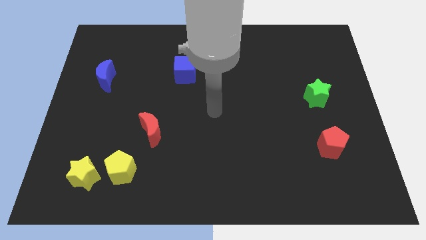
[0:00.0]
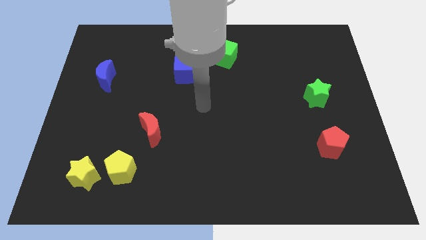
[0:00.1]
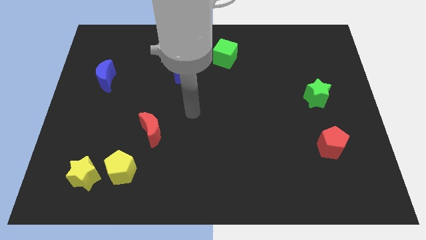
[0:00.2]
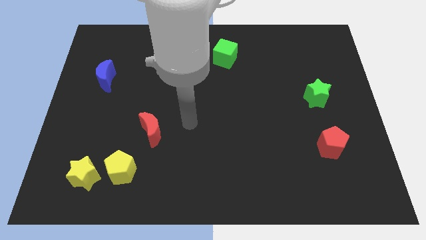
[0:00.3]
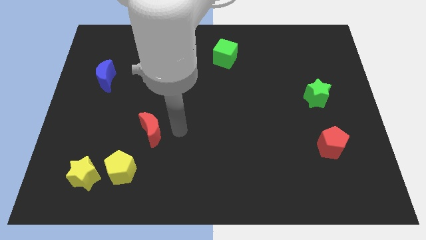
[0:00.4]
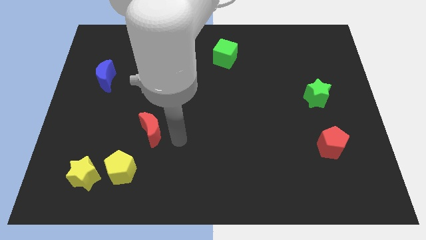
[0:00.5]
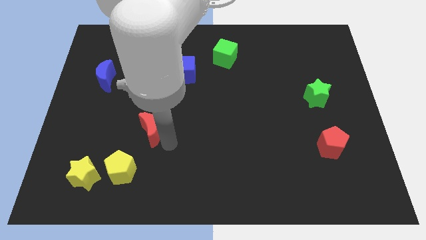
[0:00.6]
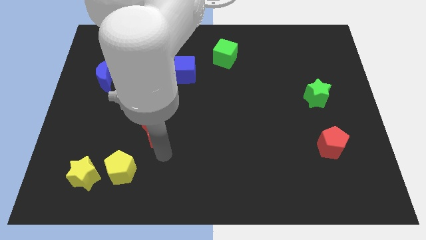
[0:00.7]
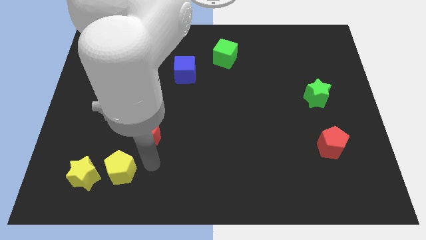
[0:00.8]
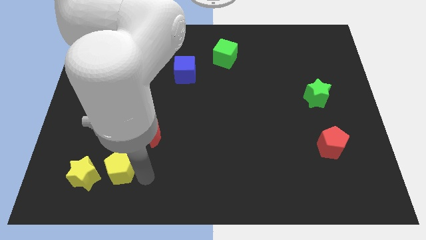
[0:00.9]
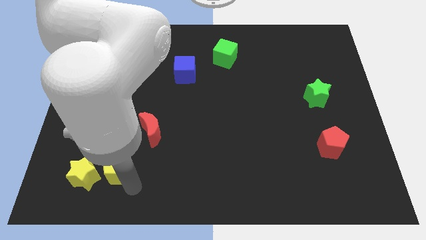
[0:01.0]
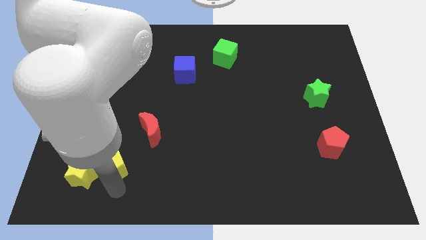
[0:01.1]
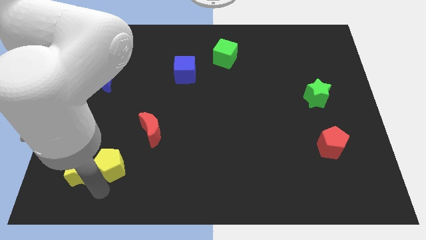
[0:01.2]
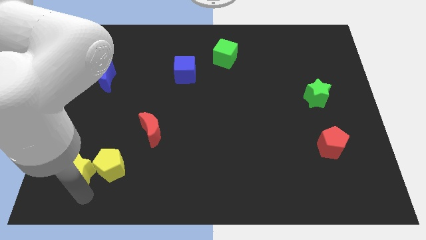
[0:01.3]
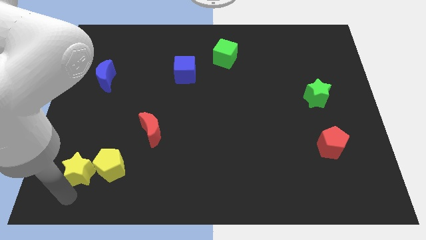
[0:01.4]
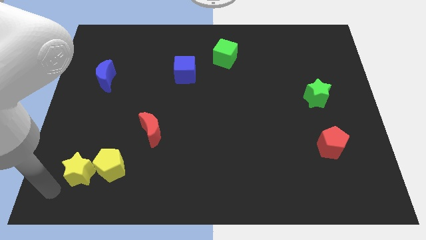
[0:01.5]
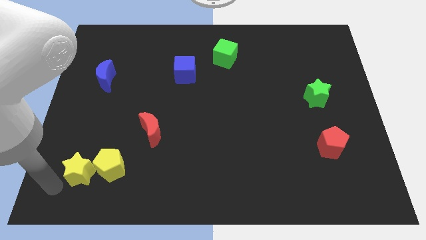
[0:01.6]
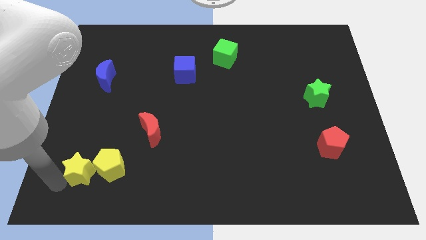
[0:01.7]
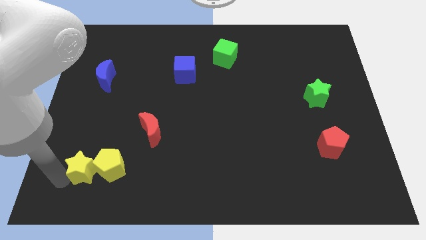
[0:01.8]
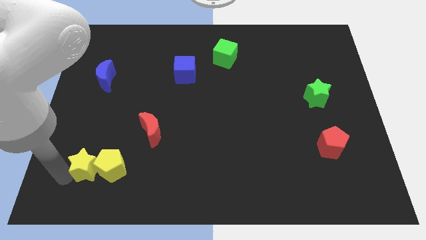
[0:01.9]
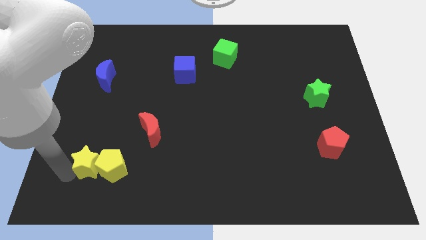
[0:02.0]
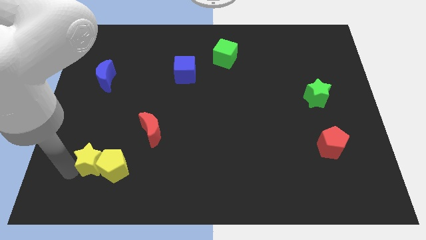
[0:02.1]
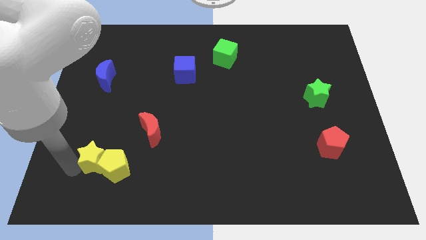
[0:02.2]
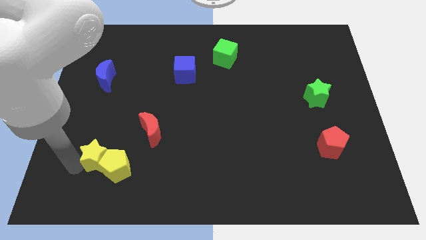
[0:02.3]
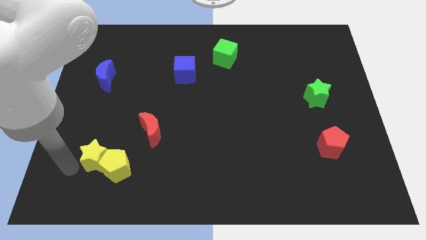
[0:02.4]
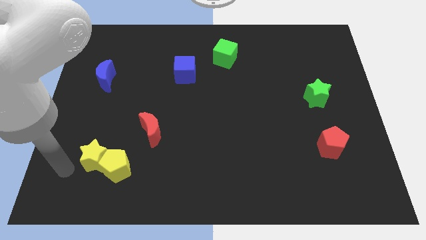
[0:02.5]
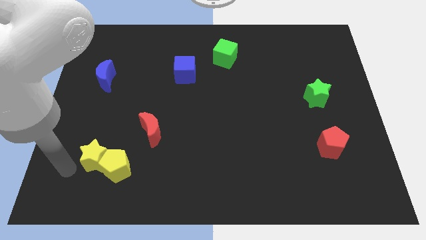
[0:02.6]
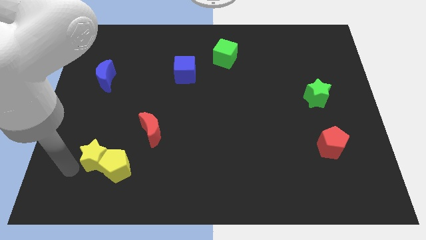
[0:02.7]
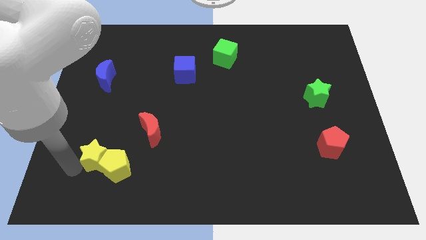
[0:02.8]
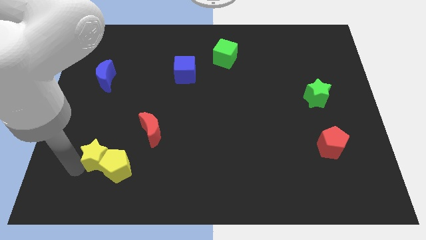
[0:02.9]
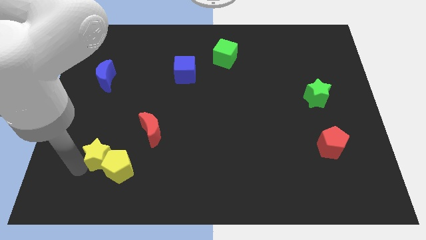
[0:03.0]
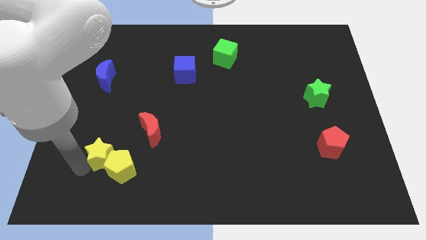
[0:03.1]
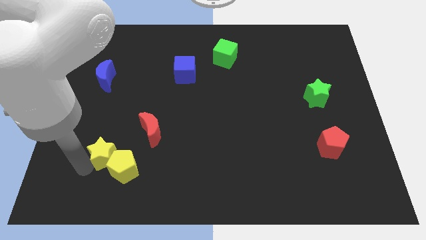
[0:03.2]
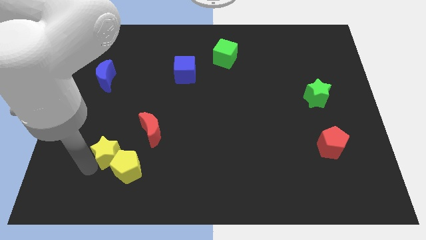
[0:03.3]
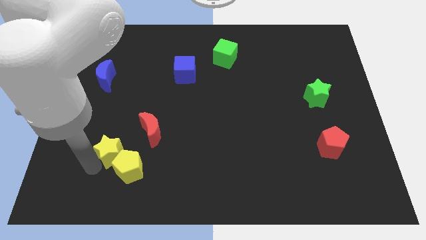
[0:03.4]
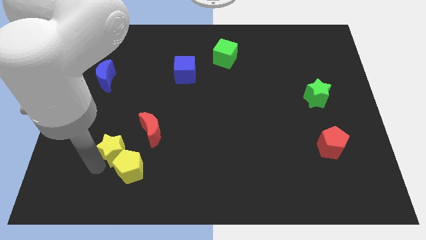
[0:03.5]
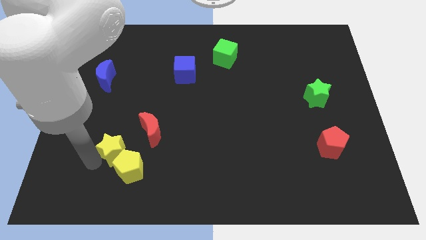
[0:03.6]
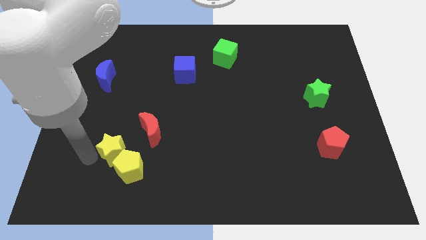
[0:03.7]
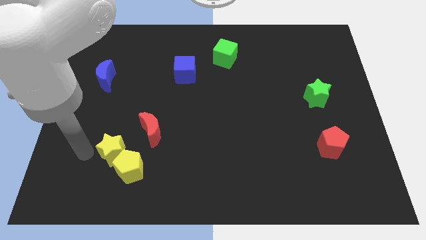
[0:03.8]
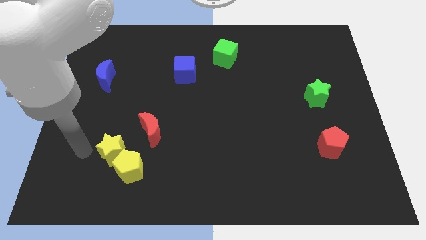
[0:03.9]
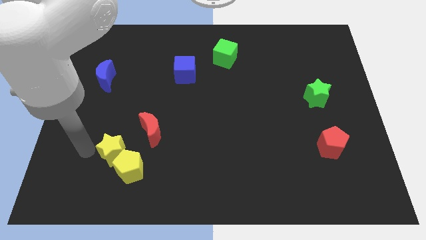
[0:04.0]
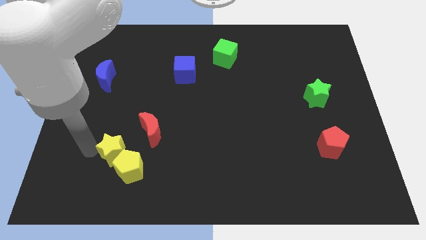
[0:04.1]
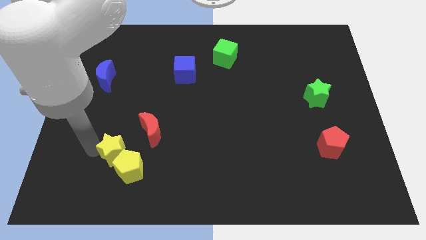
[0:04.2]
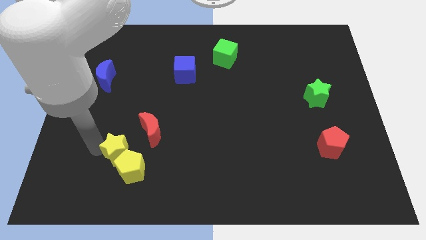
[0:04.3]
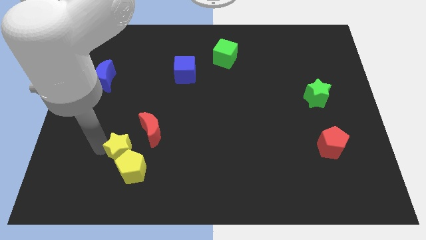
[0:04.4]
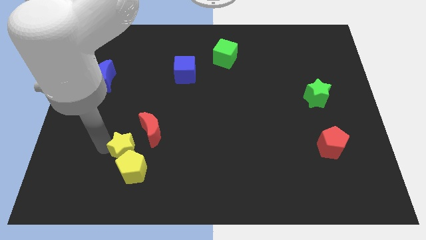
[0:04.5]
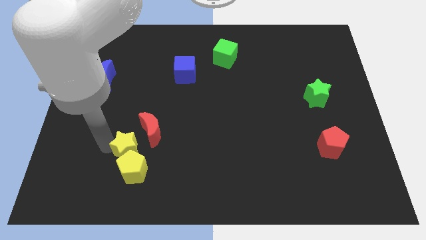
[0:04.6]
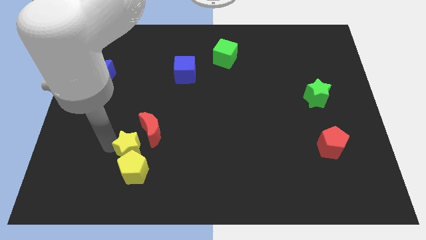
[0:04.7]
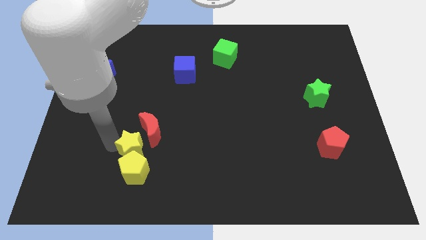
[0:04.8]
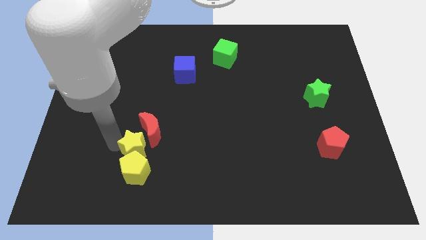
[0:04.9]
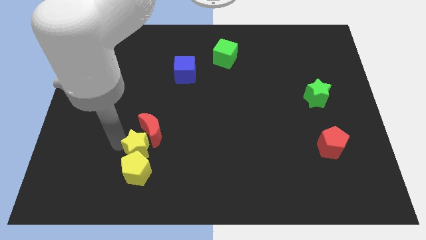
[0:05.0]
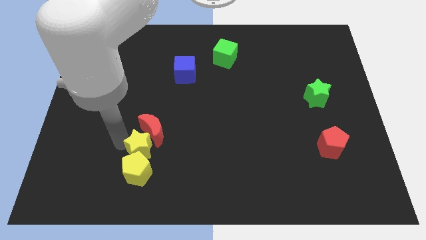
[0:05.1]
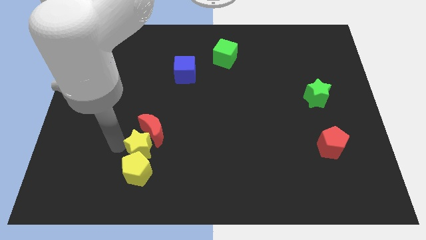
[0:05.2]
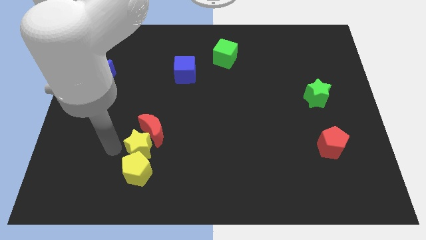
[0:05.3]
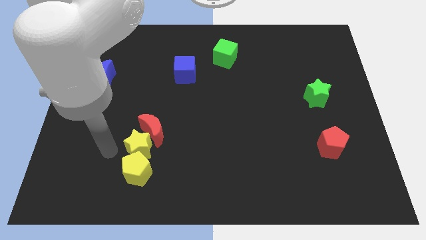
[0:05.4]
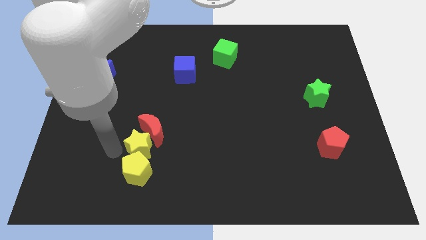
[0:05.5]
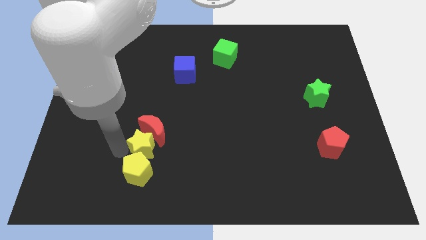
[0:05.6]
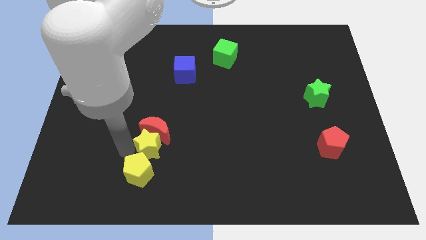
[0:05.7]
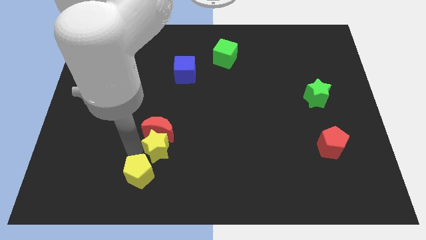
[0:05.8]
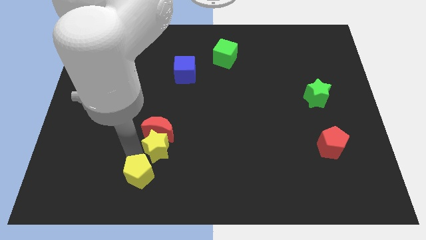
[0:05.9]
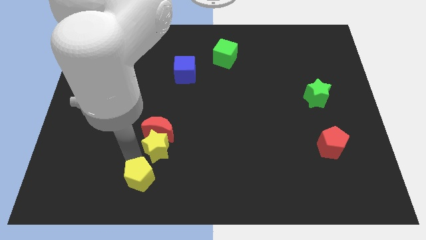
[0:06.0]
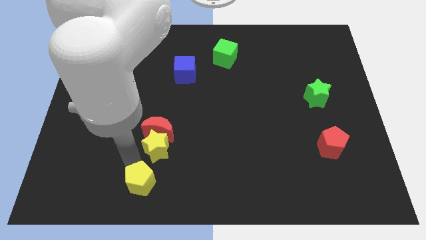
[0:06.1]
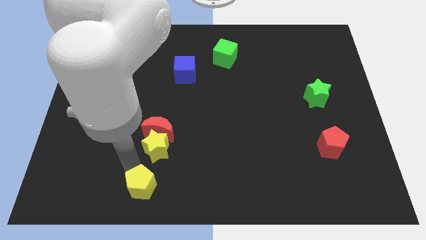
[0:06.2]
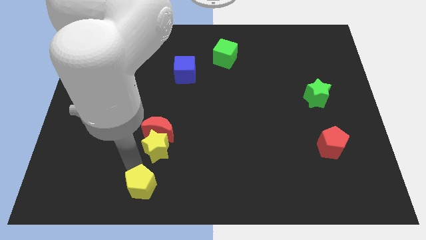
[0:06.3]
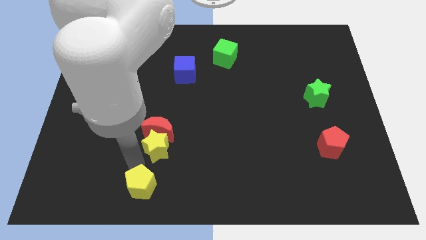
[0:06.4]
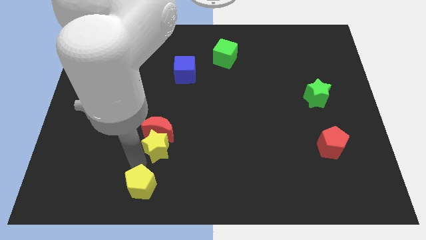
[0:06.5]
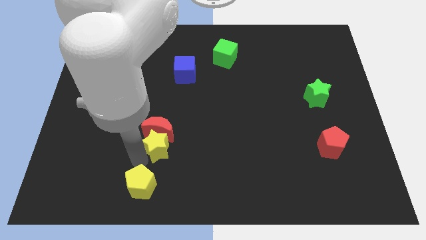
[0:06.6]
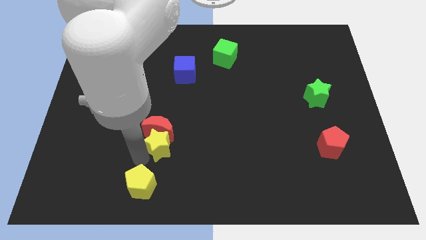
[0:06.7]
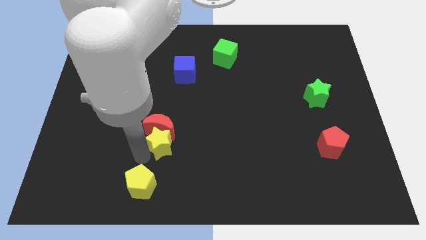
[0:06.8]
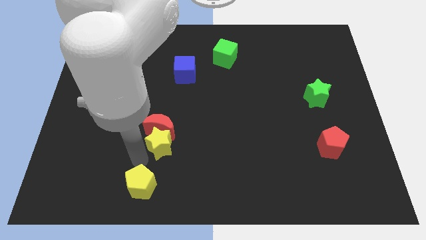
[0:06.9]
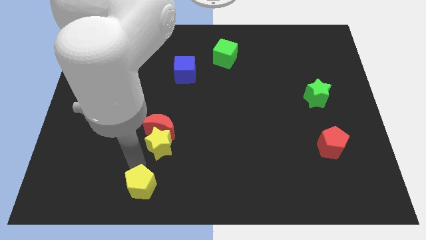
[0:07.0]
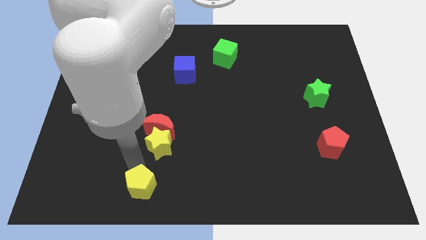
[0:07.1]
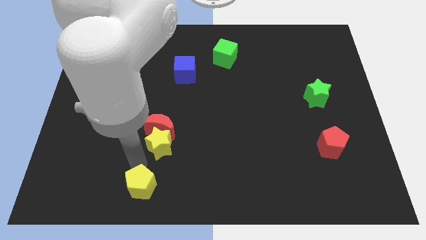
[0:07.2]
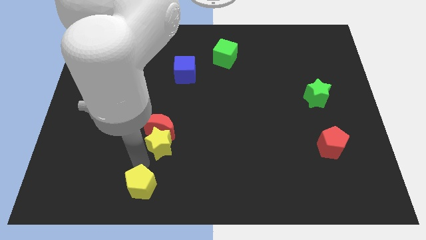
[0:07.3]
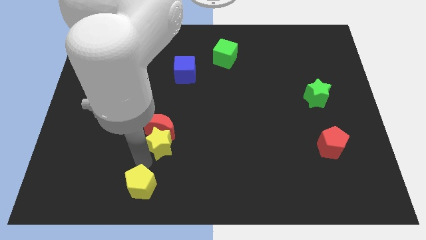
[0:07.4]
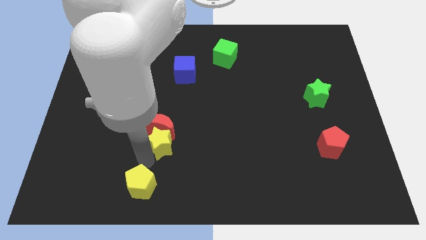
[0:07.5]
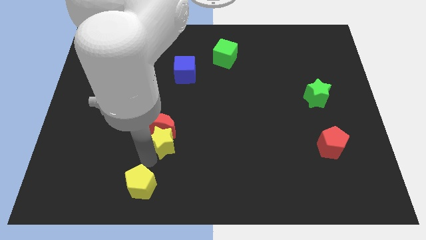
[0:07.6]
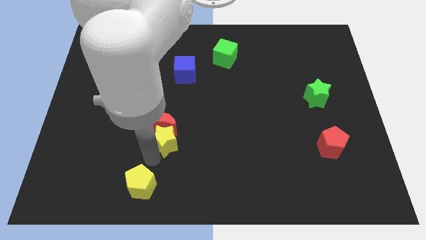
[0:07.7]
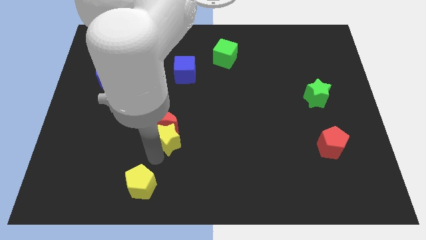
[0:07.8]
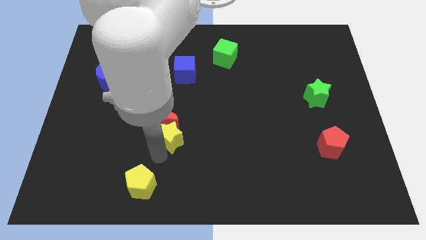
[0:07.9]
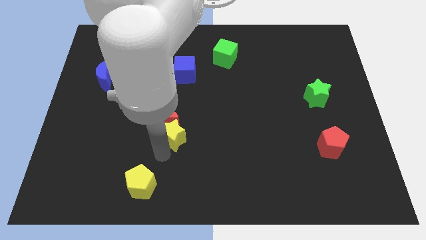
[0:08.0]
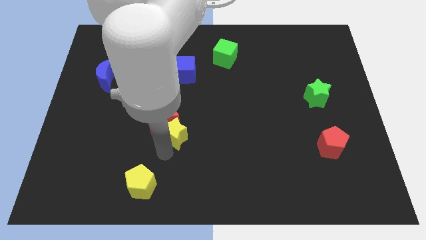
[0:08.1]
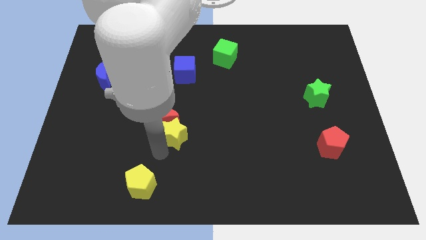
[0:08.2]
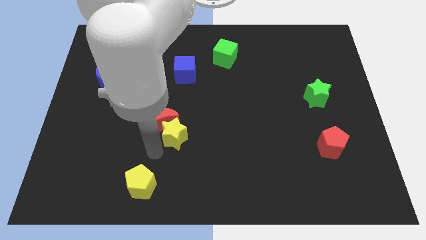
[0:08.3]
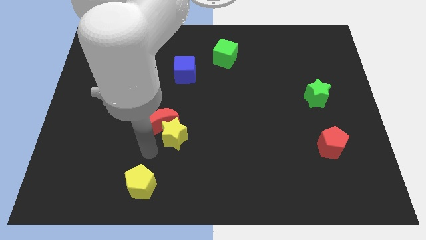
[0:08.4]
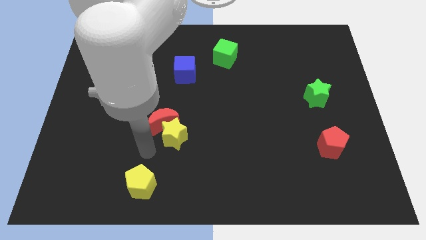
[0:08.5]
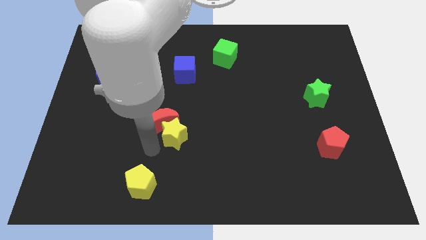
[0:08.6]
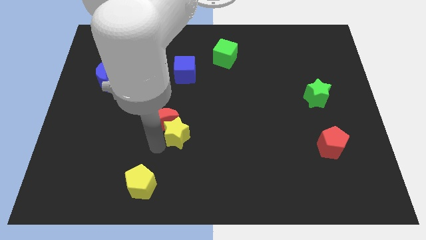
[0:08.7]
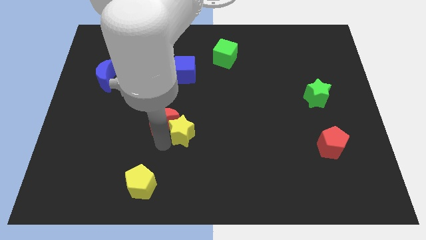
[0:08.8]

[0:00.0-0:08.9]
slide the yellow star to the middle
